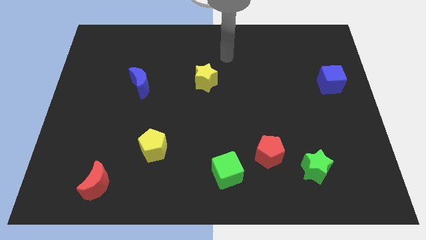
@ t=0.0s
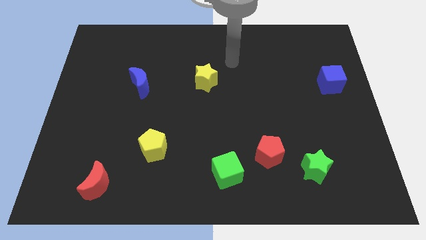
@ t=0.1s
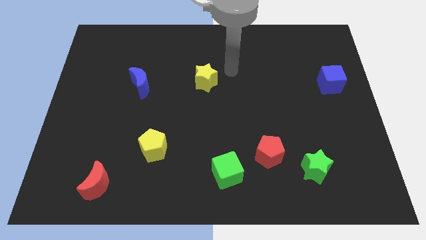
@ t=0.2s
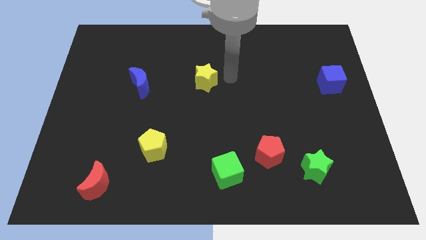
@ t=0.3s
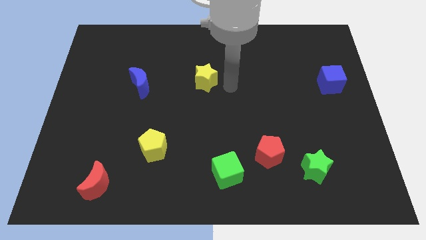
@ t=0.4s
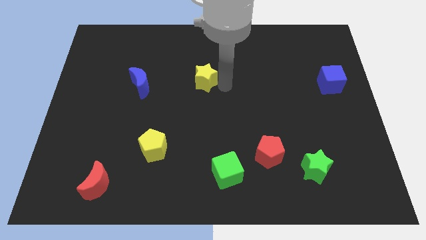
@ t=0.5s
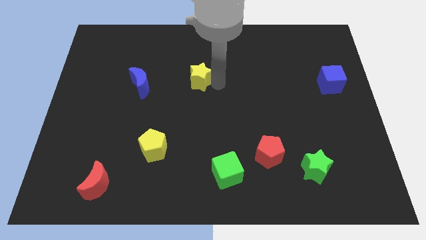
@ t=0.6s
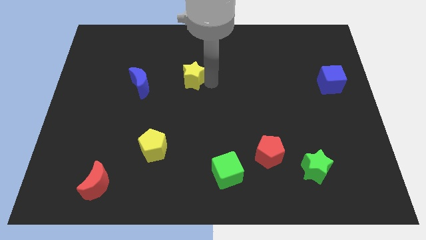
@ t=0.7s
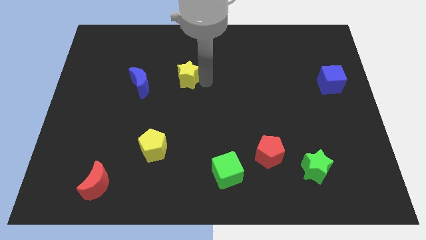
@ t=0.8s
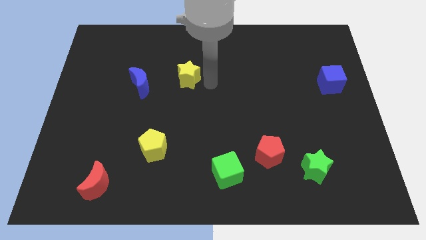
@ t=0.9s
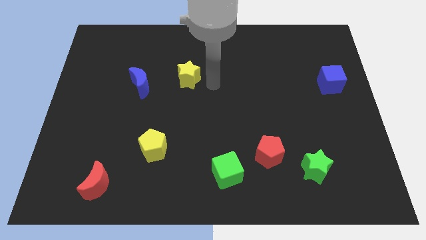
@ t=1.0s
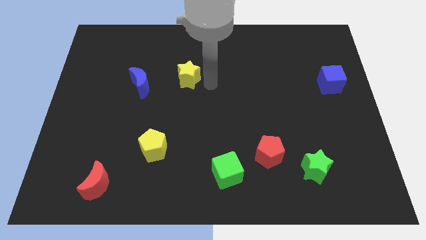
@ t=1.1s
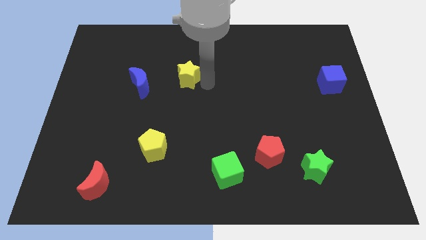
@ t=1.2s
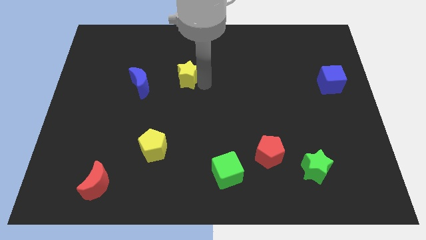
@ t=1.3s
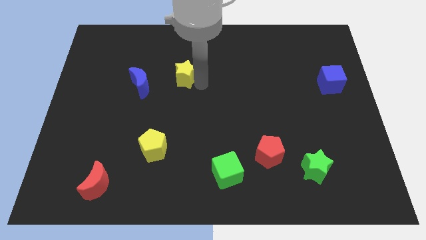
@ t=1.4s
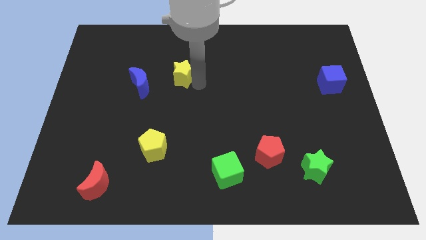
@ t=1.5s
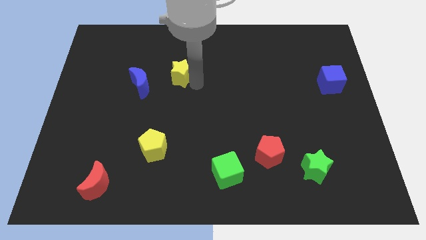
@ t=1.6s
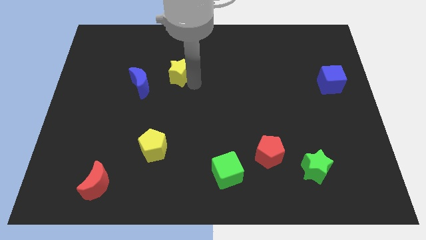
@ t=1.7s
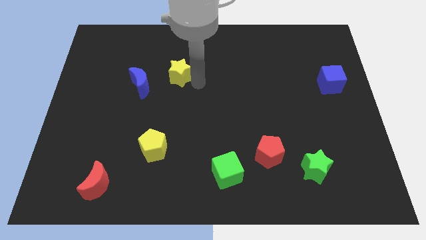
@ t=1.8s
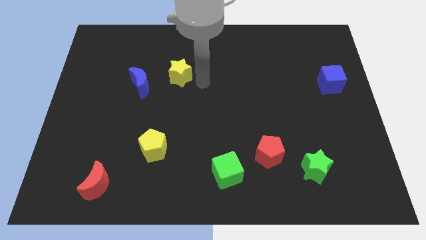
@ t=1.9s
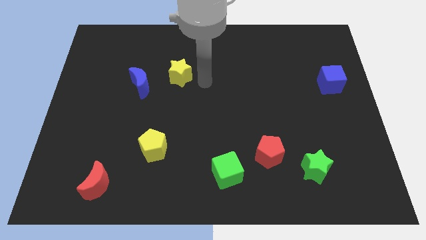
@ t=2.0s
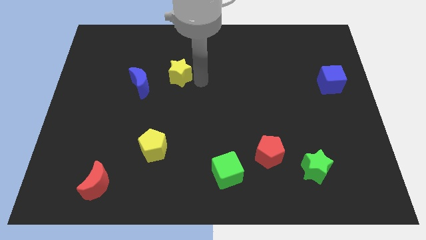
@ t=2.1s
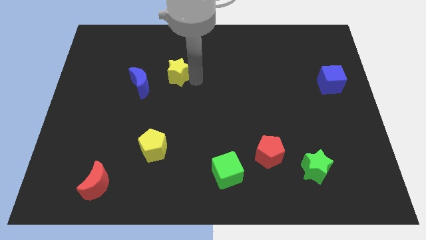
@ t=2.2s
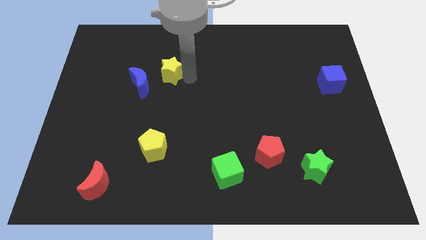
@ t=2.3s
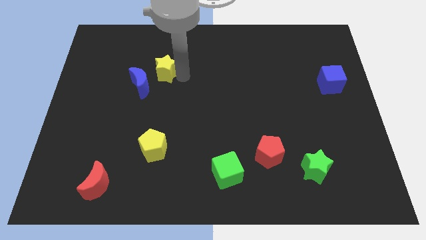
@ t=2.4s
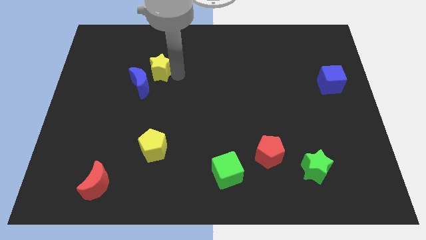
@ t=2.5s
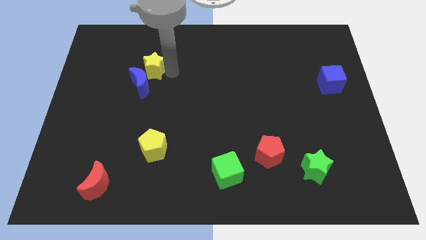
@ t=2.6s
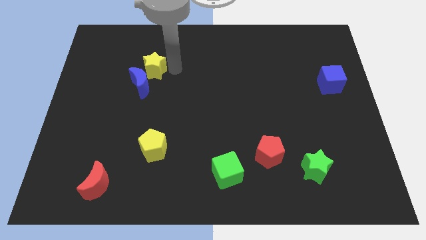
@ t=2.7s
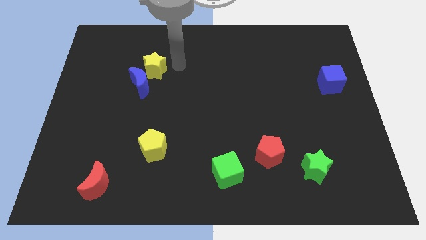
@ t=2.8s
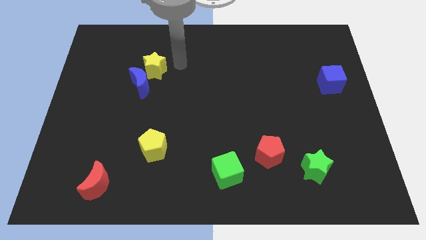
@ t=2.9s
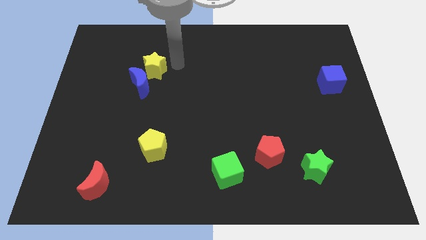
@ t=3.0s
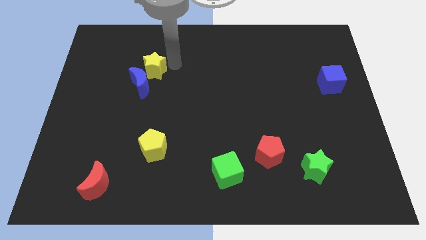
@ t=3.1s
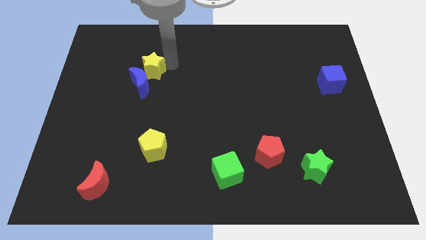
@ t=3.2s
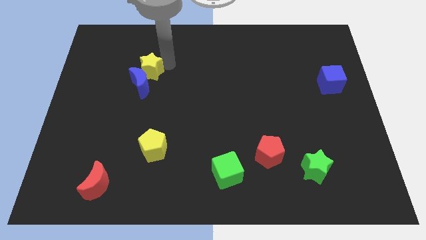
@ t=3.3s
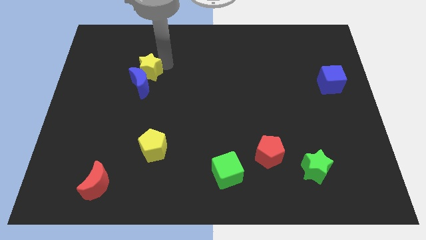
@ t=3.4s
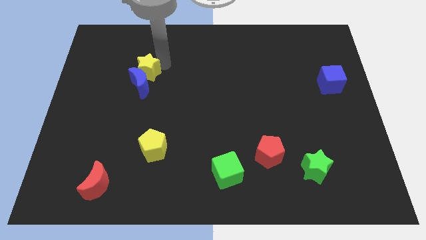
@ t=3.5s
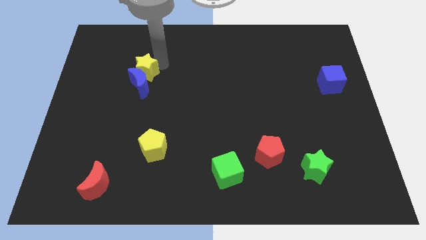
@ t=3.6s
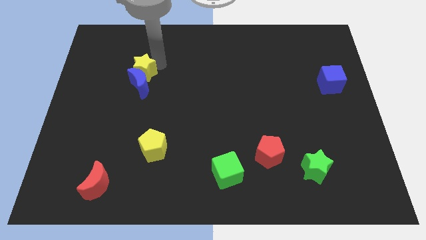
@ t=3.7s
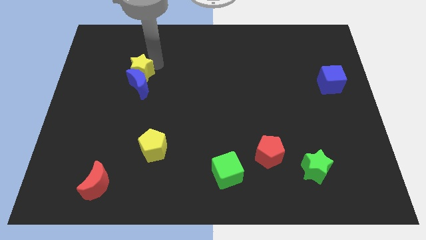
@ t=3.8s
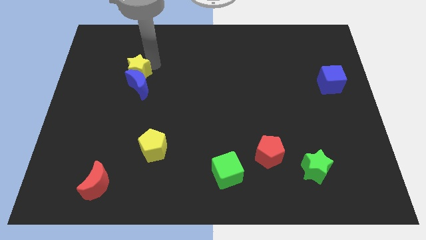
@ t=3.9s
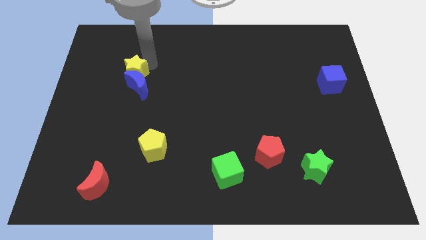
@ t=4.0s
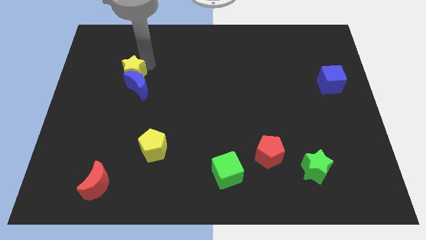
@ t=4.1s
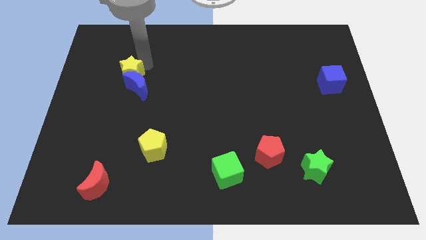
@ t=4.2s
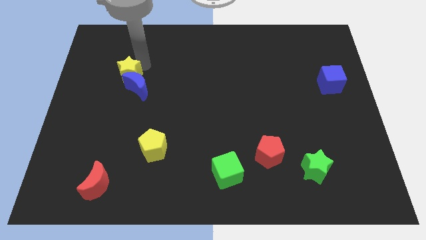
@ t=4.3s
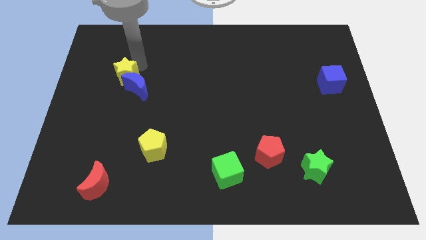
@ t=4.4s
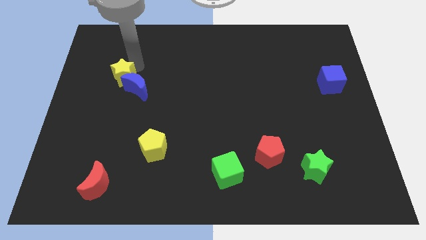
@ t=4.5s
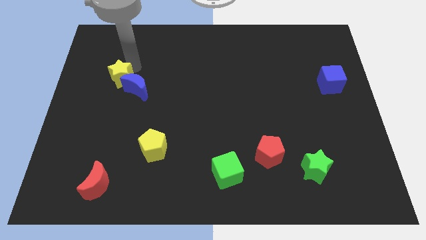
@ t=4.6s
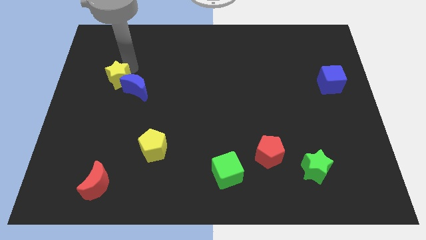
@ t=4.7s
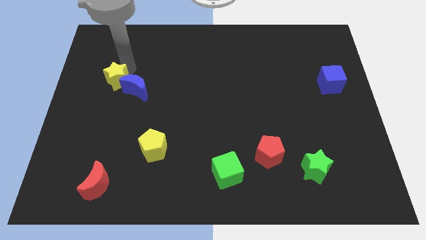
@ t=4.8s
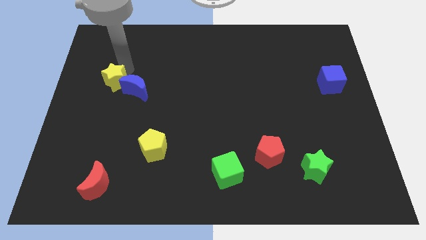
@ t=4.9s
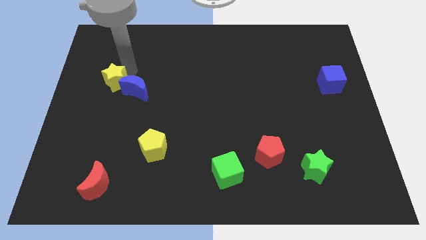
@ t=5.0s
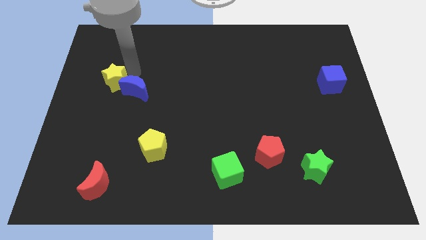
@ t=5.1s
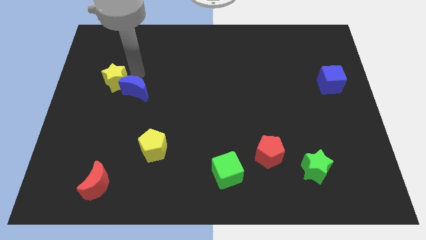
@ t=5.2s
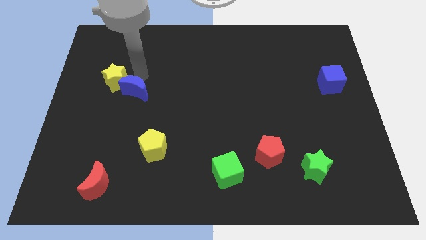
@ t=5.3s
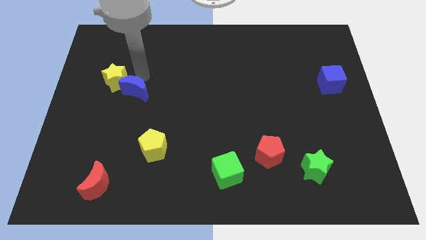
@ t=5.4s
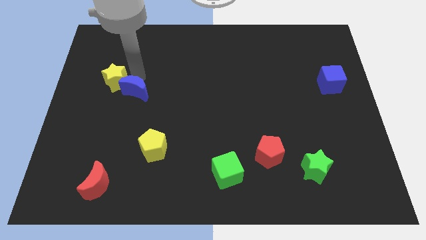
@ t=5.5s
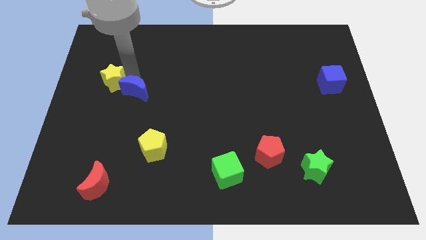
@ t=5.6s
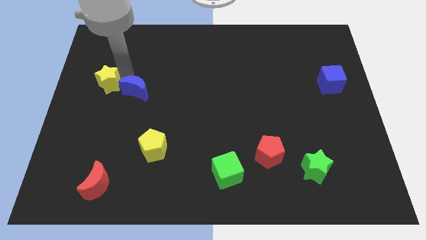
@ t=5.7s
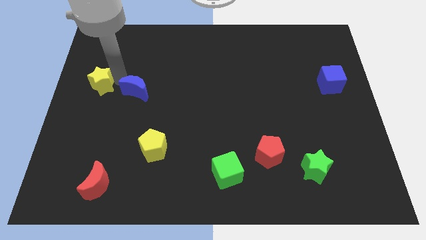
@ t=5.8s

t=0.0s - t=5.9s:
slide the yellow star to the left side of the board

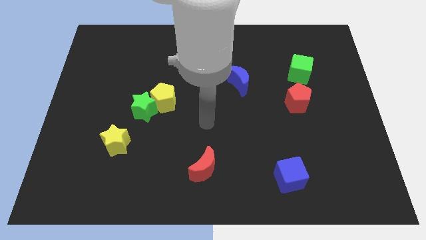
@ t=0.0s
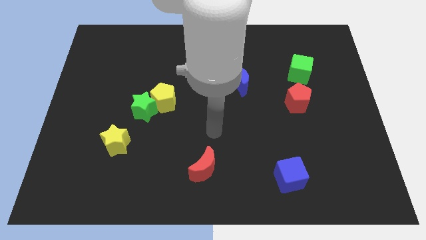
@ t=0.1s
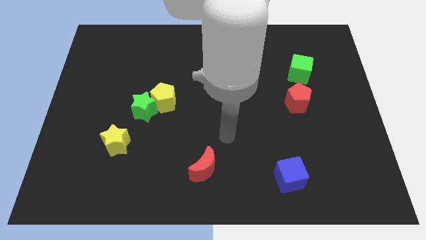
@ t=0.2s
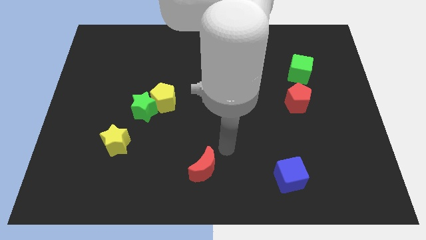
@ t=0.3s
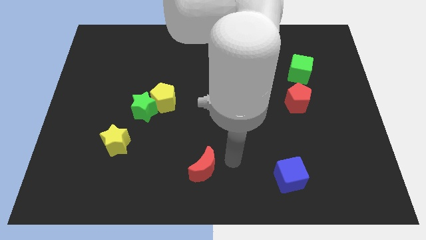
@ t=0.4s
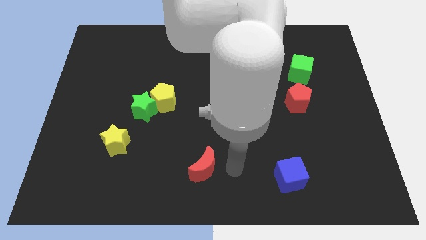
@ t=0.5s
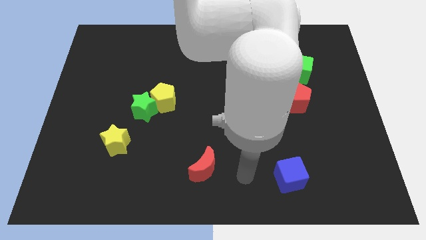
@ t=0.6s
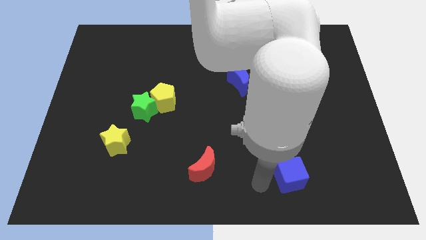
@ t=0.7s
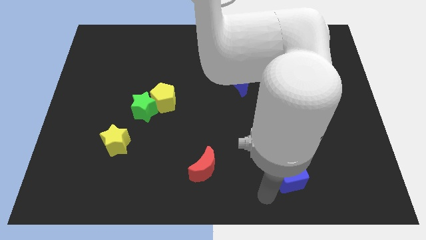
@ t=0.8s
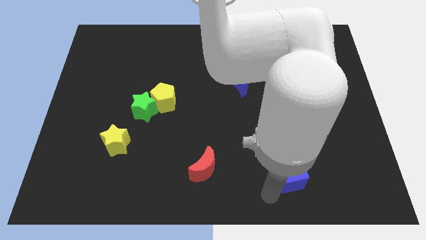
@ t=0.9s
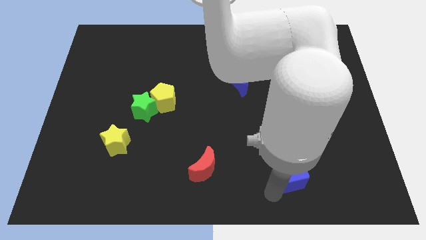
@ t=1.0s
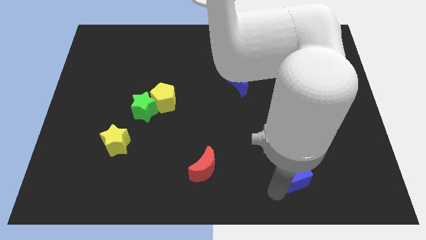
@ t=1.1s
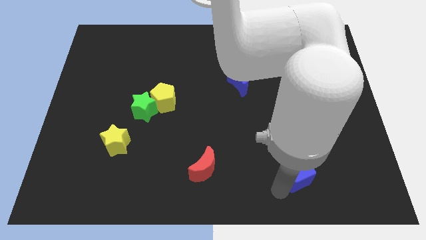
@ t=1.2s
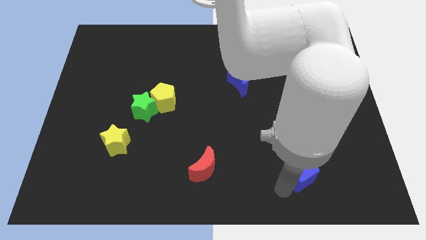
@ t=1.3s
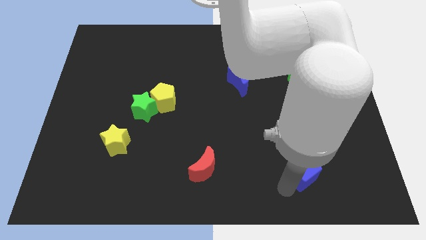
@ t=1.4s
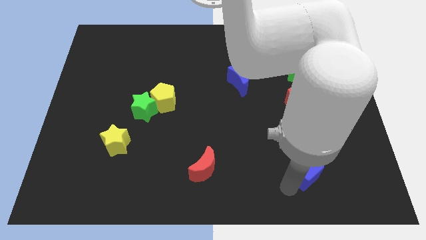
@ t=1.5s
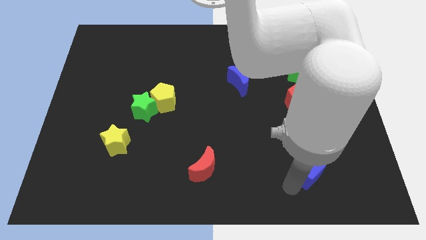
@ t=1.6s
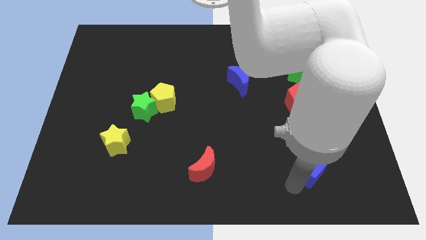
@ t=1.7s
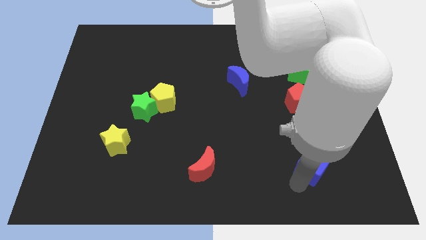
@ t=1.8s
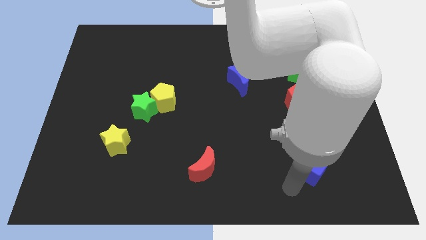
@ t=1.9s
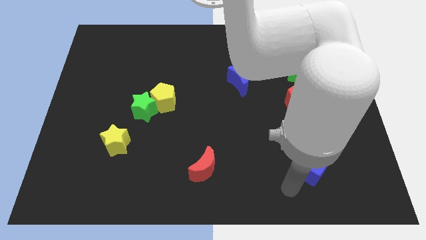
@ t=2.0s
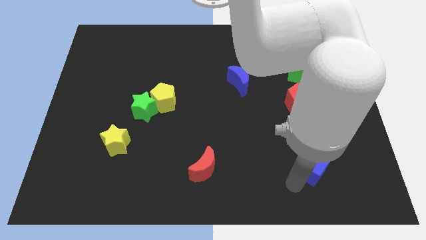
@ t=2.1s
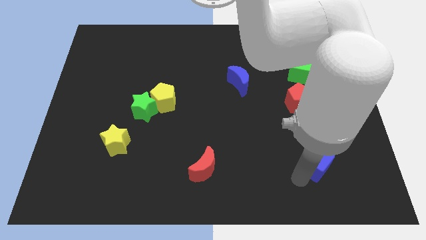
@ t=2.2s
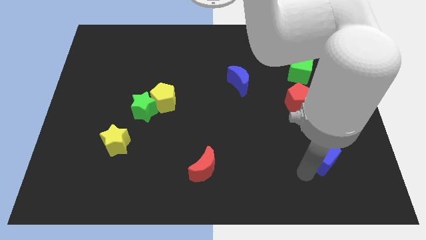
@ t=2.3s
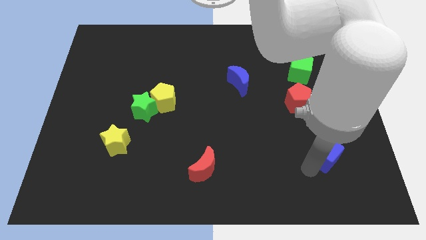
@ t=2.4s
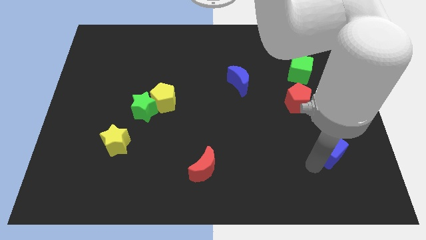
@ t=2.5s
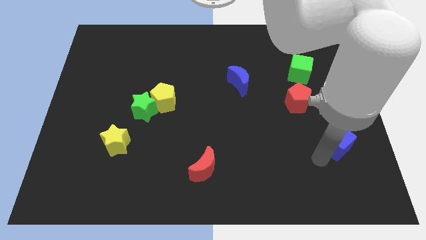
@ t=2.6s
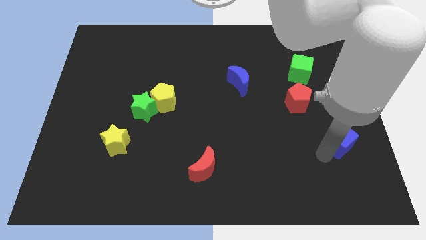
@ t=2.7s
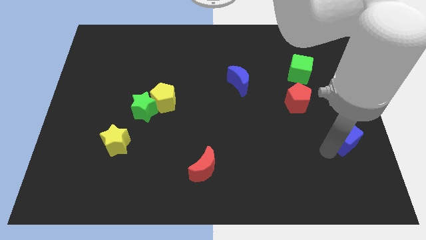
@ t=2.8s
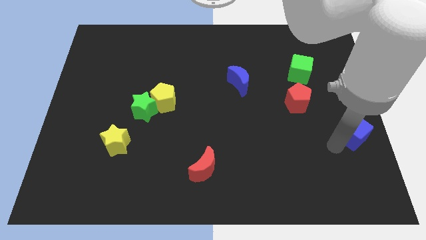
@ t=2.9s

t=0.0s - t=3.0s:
push the blue cube to the center right
